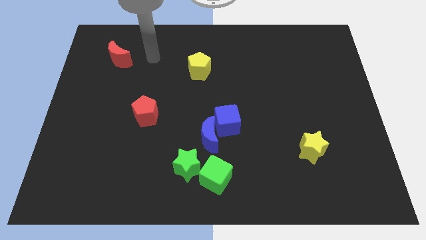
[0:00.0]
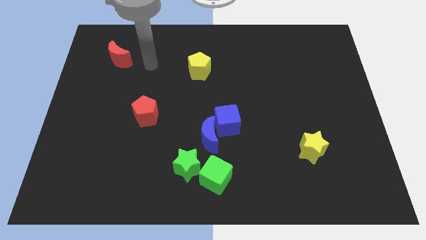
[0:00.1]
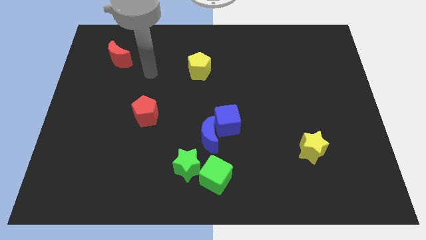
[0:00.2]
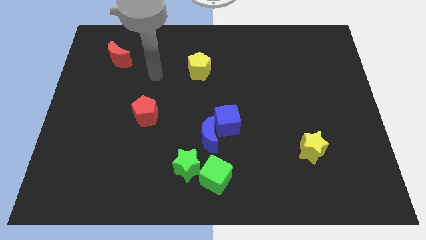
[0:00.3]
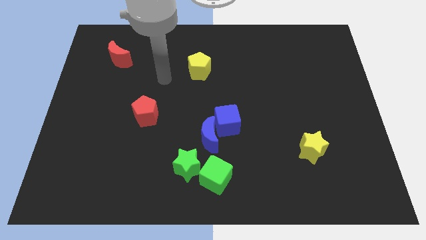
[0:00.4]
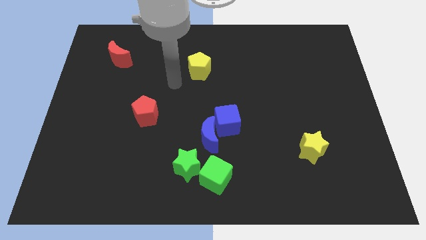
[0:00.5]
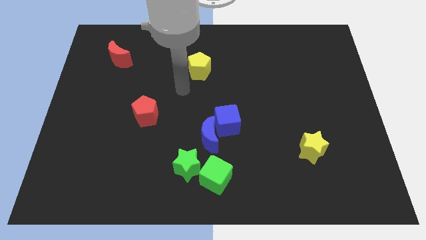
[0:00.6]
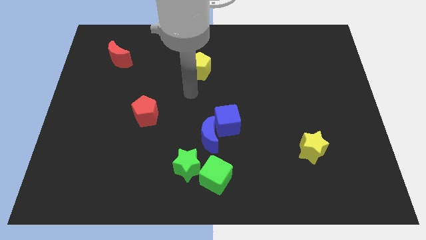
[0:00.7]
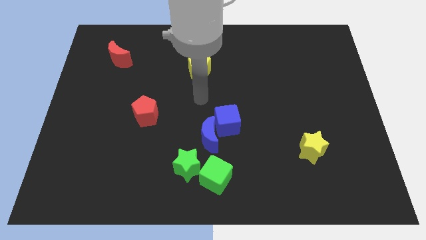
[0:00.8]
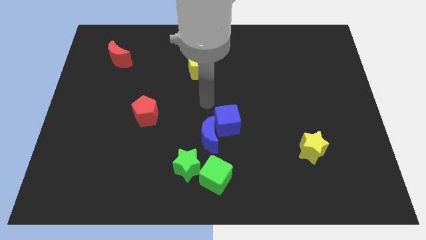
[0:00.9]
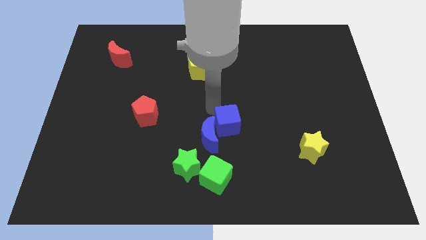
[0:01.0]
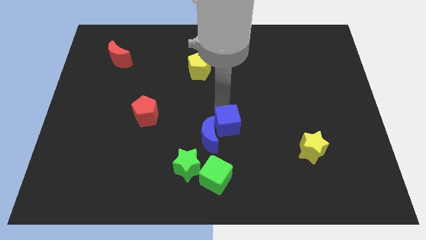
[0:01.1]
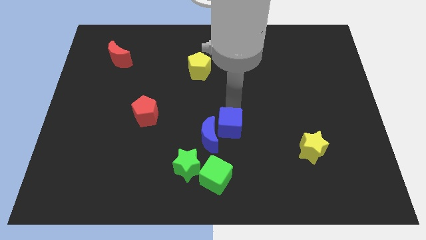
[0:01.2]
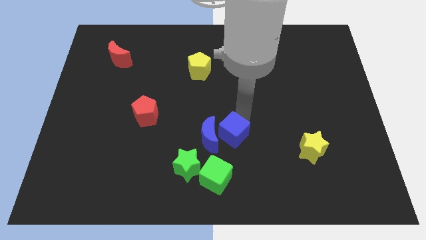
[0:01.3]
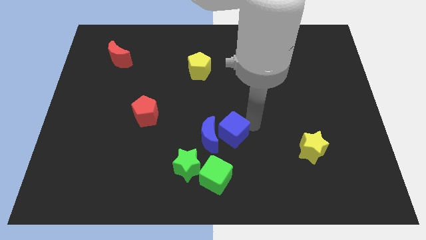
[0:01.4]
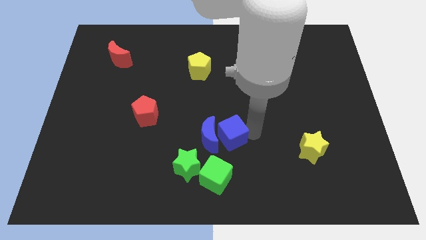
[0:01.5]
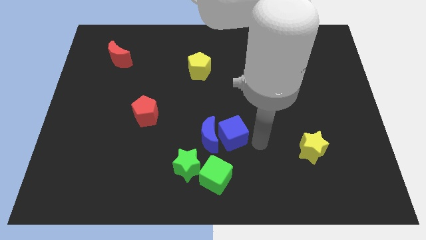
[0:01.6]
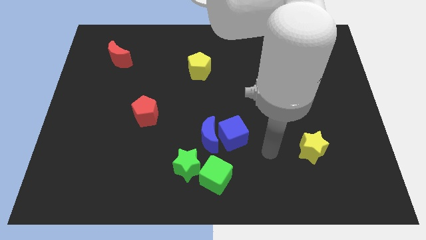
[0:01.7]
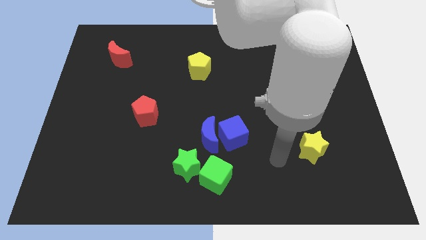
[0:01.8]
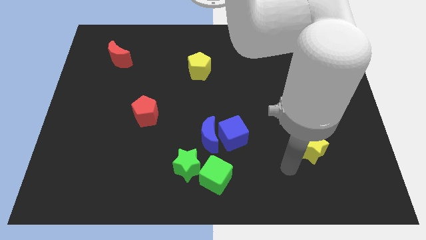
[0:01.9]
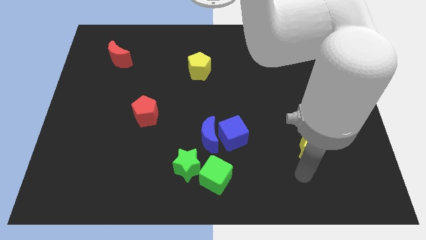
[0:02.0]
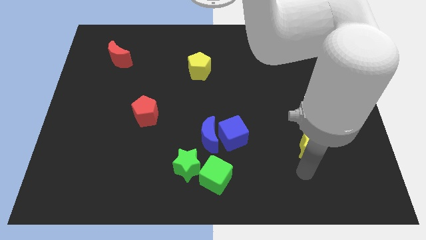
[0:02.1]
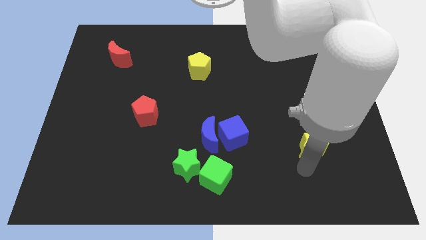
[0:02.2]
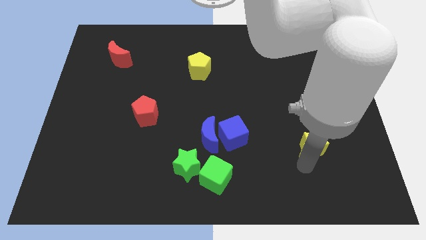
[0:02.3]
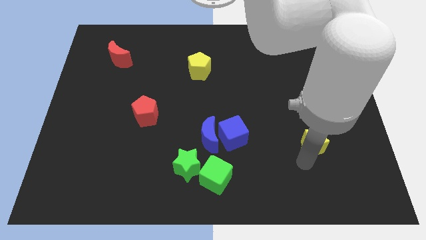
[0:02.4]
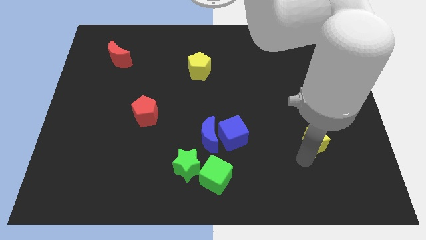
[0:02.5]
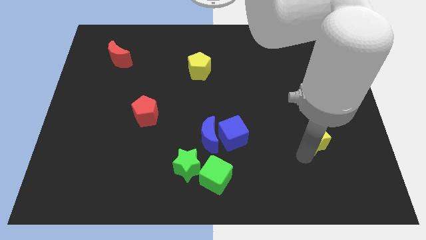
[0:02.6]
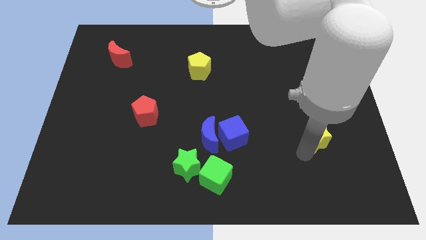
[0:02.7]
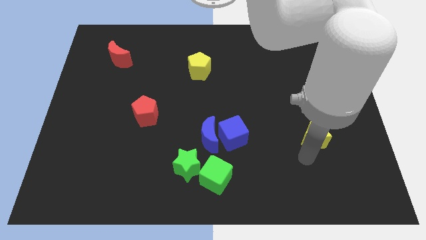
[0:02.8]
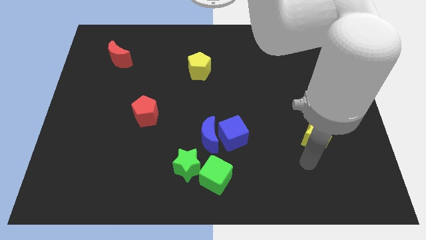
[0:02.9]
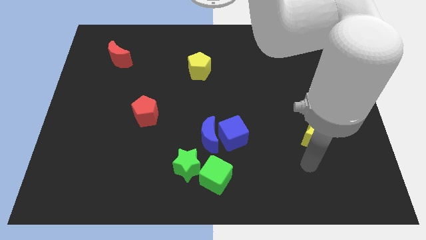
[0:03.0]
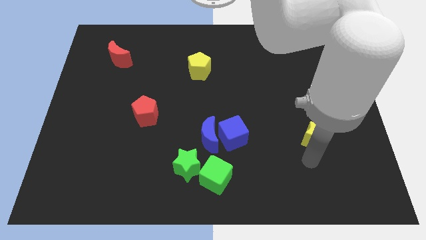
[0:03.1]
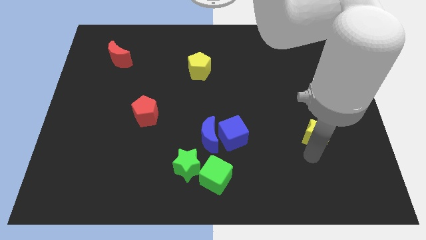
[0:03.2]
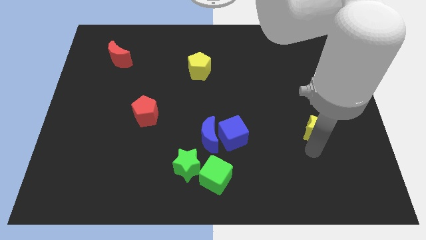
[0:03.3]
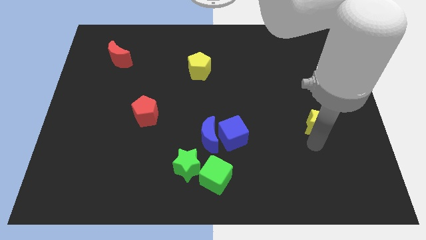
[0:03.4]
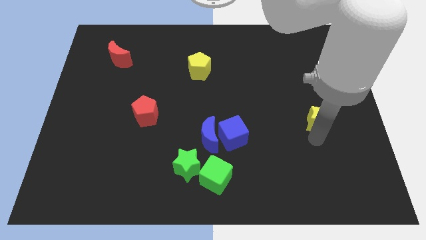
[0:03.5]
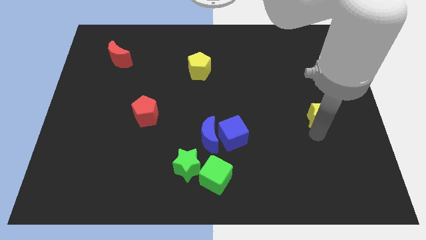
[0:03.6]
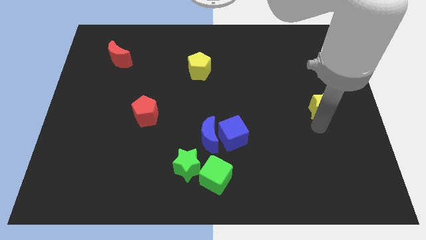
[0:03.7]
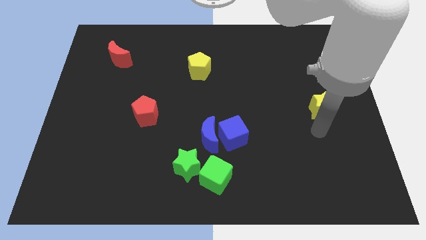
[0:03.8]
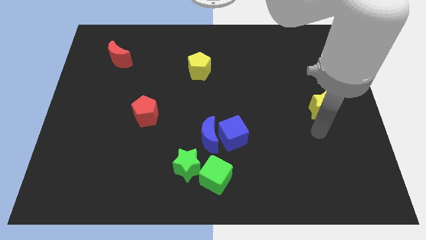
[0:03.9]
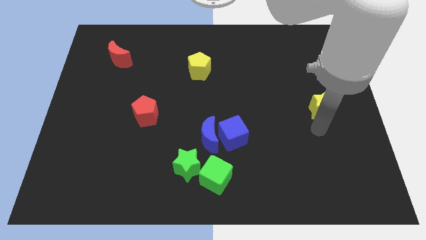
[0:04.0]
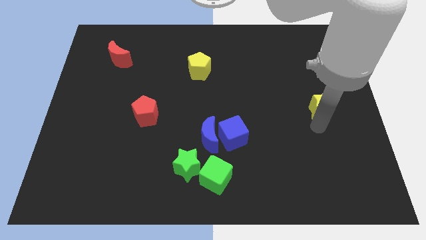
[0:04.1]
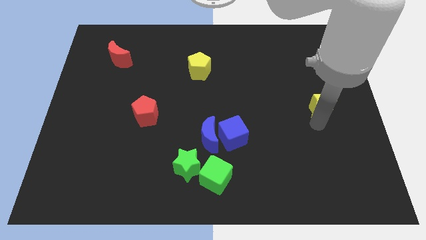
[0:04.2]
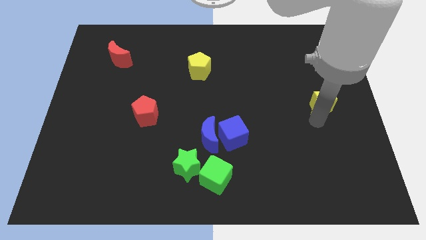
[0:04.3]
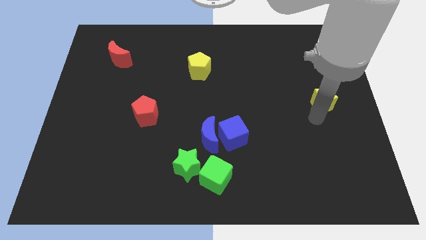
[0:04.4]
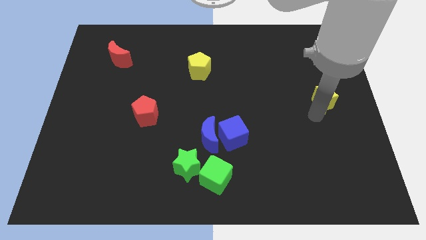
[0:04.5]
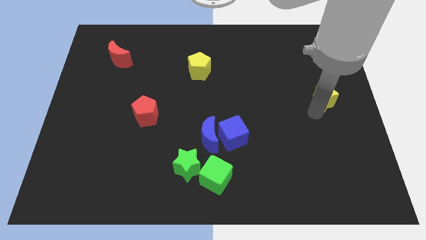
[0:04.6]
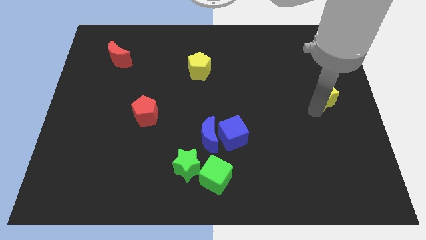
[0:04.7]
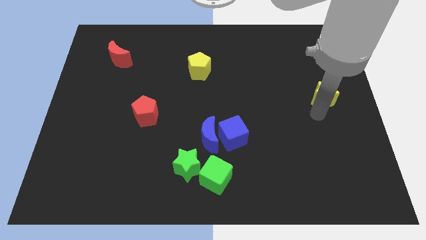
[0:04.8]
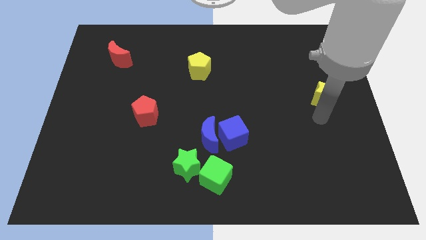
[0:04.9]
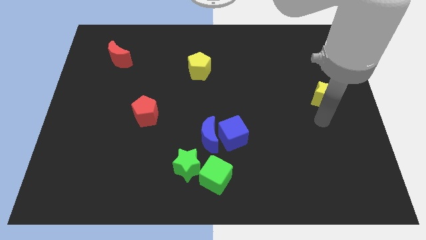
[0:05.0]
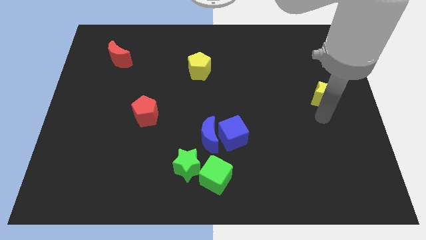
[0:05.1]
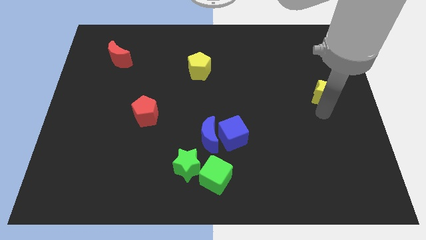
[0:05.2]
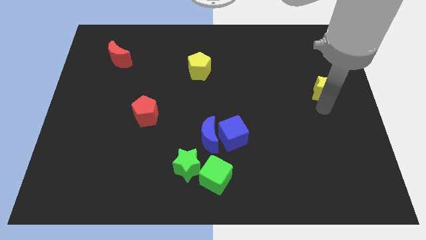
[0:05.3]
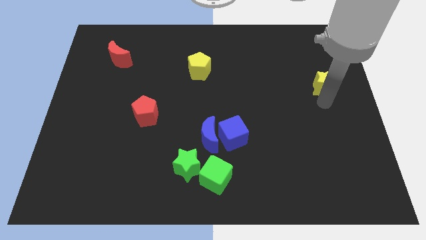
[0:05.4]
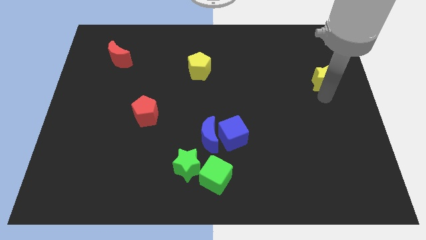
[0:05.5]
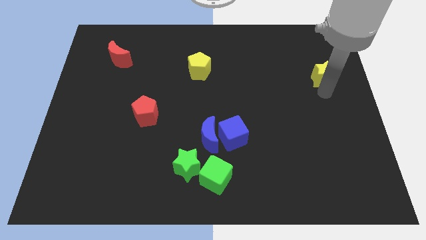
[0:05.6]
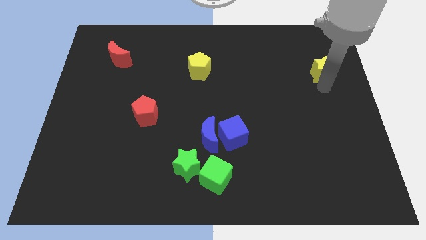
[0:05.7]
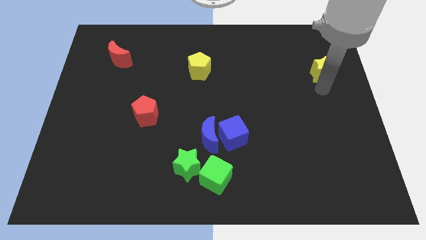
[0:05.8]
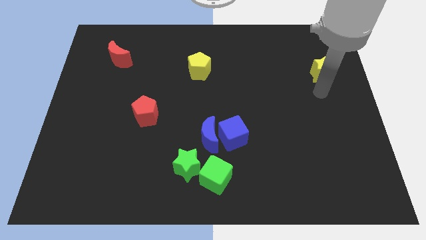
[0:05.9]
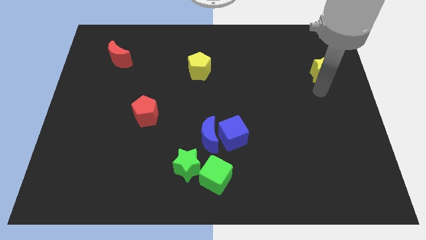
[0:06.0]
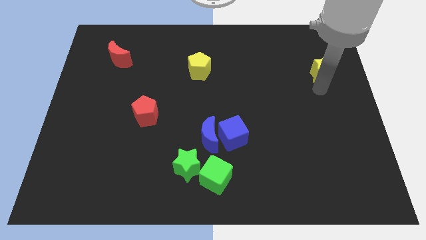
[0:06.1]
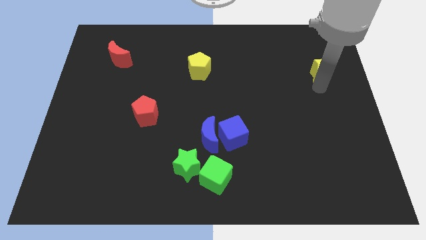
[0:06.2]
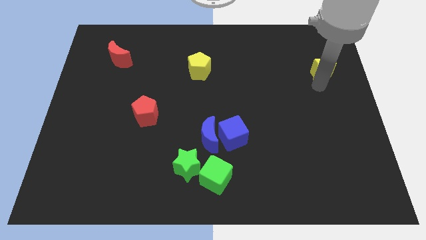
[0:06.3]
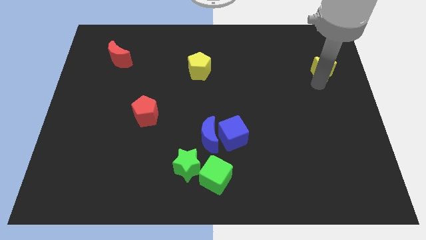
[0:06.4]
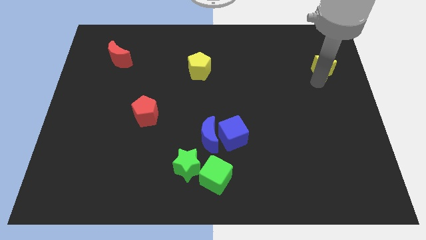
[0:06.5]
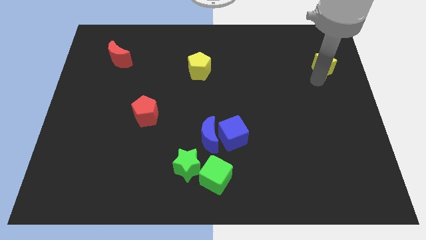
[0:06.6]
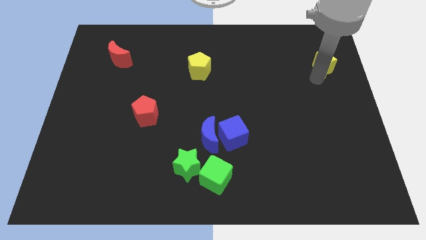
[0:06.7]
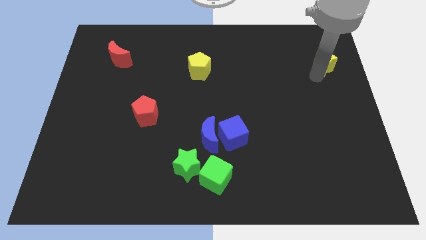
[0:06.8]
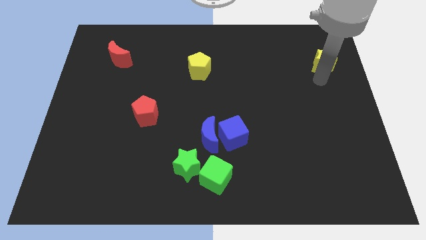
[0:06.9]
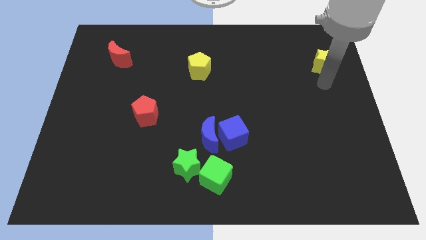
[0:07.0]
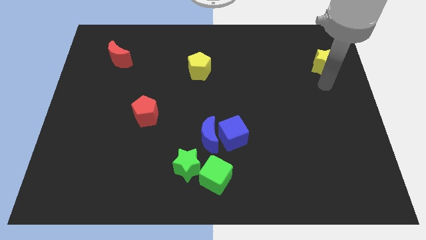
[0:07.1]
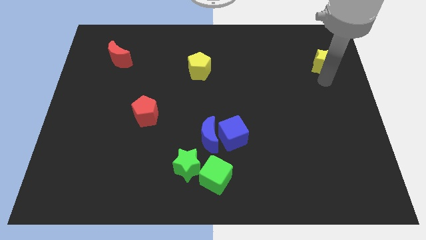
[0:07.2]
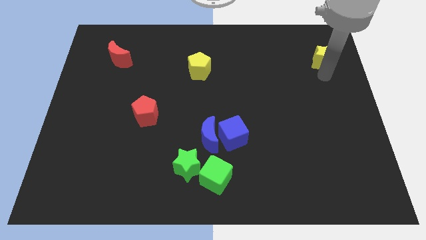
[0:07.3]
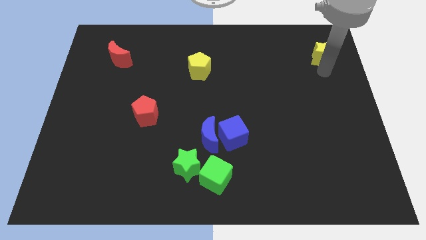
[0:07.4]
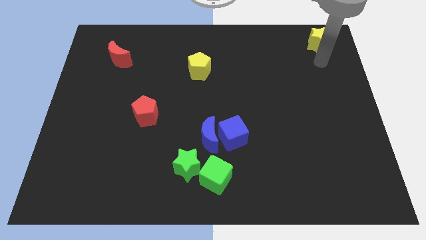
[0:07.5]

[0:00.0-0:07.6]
put the yellow star to the top right
